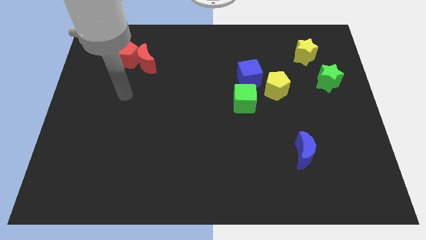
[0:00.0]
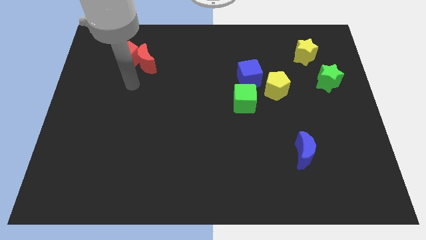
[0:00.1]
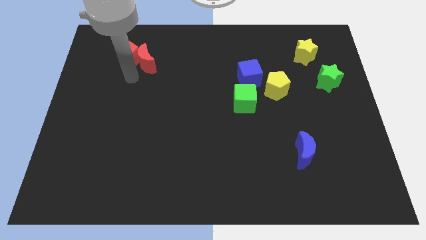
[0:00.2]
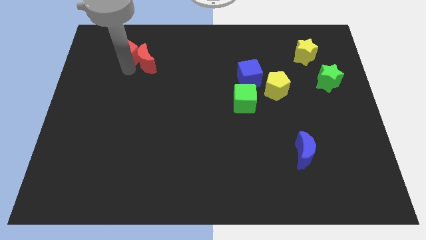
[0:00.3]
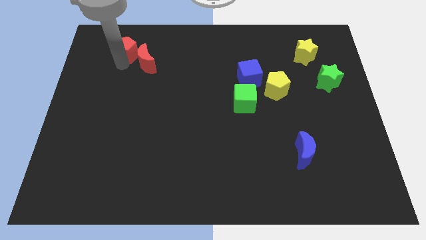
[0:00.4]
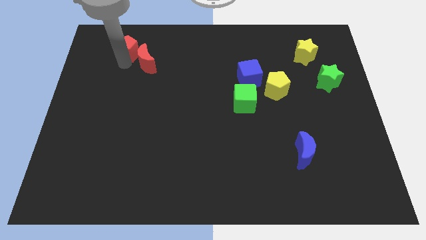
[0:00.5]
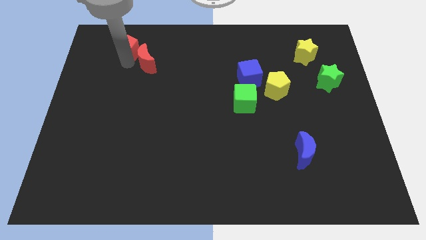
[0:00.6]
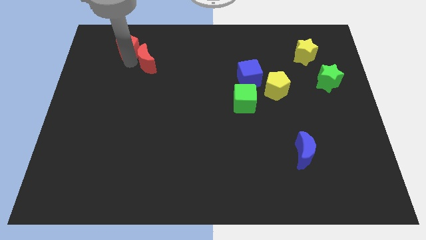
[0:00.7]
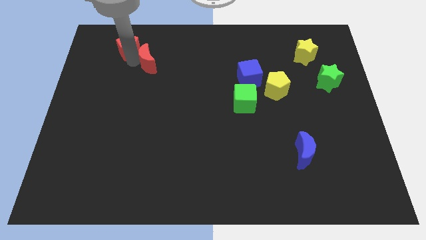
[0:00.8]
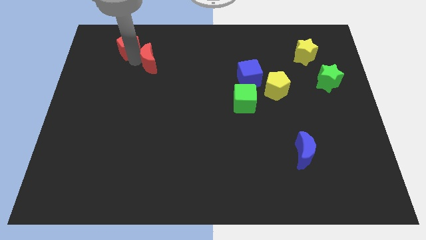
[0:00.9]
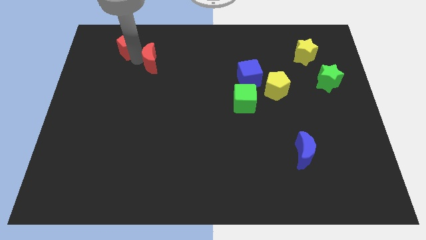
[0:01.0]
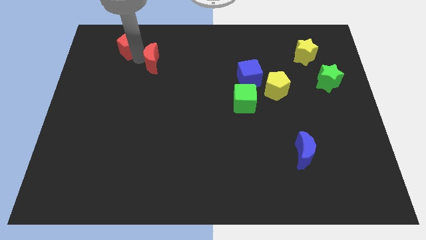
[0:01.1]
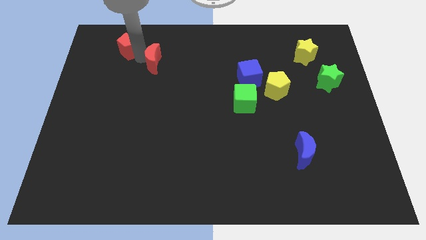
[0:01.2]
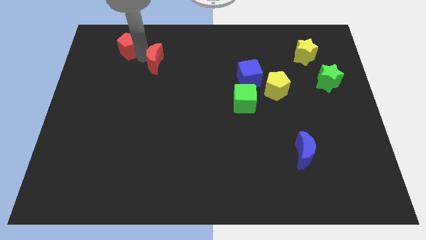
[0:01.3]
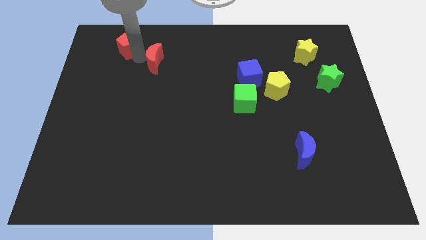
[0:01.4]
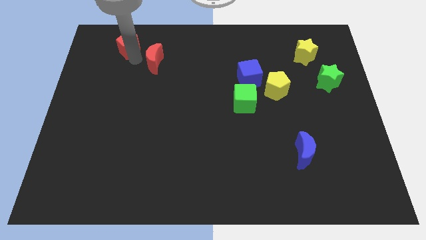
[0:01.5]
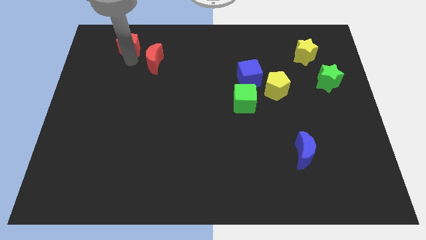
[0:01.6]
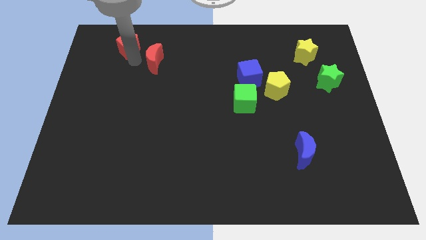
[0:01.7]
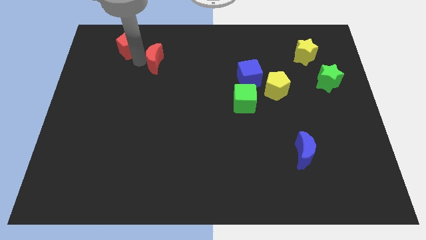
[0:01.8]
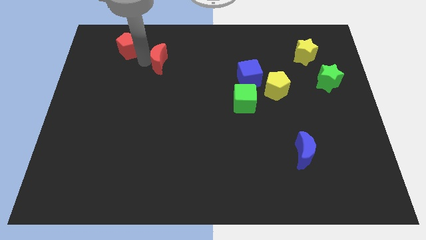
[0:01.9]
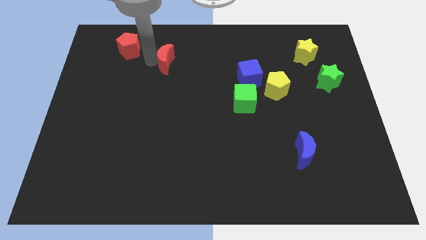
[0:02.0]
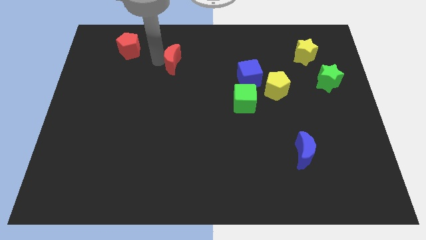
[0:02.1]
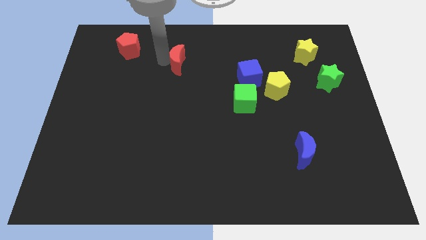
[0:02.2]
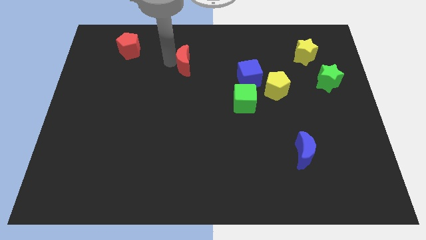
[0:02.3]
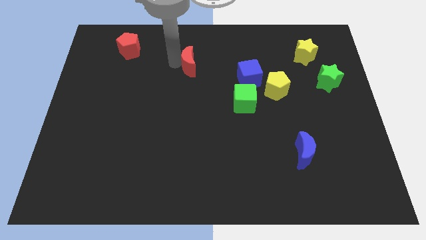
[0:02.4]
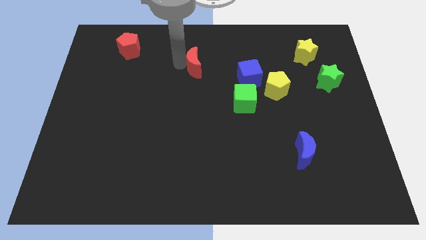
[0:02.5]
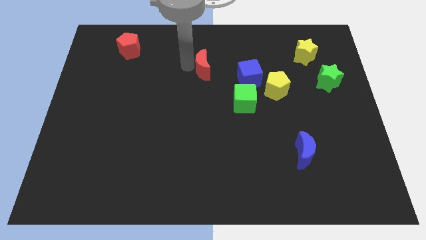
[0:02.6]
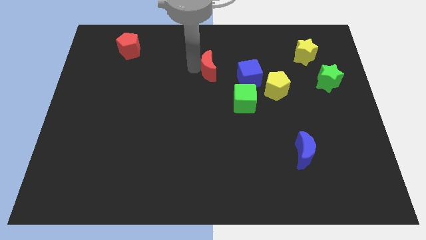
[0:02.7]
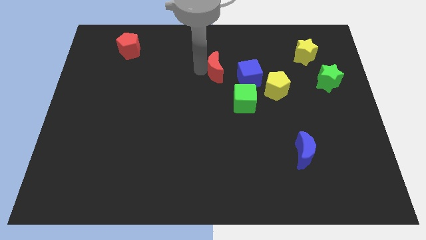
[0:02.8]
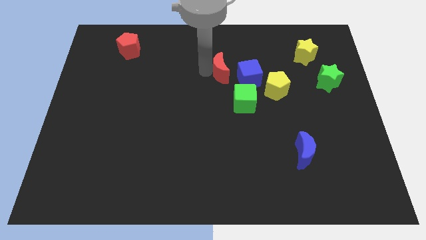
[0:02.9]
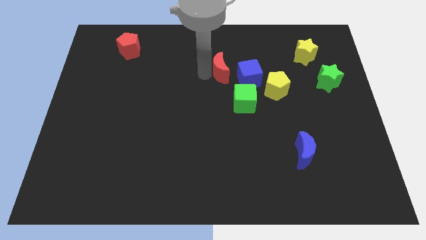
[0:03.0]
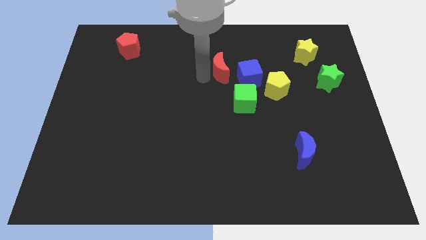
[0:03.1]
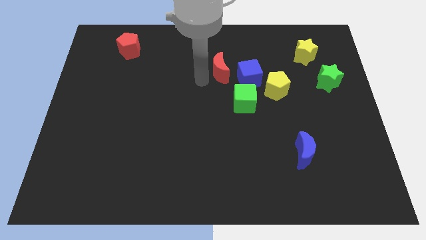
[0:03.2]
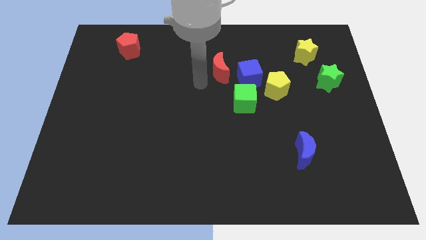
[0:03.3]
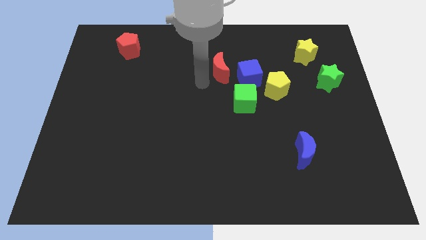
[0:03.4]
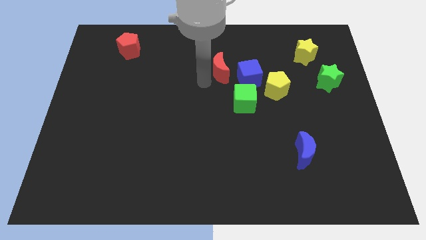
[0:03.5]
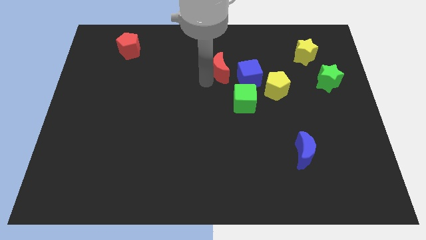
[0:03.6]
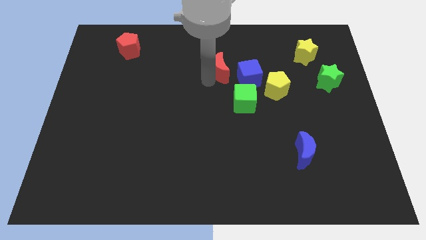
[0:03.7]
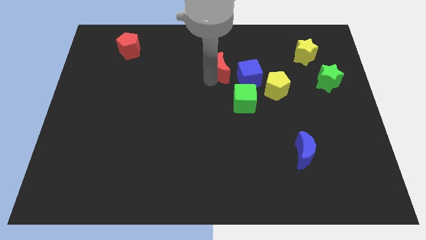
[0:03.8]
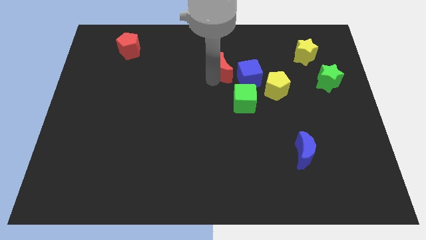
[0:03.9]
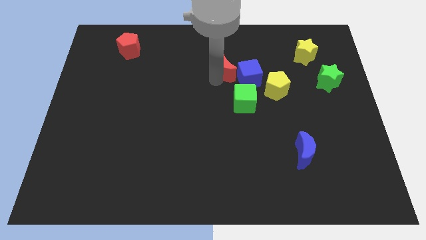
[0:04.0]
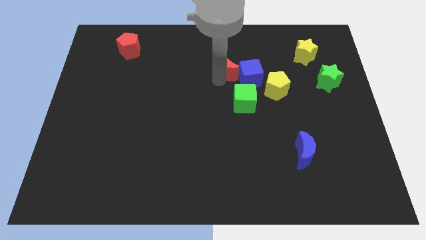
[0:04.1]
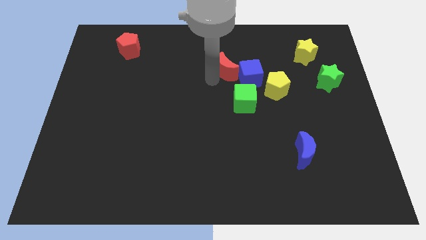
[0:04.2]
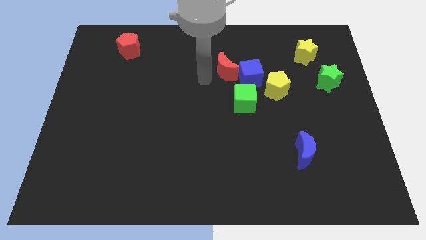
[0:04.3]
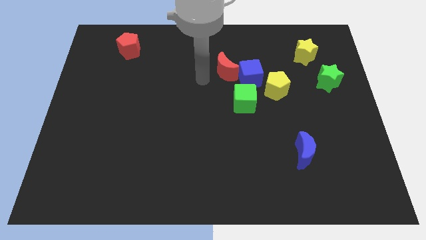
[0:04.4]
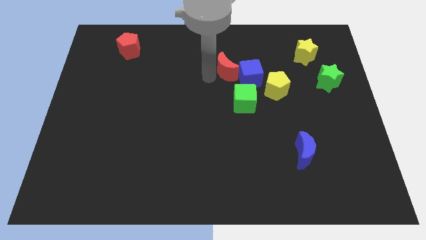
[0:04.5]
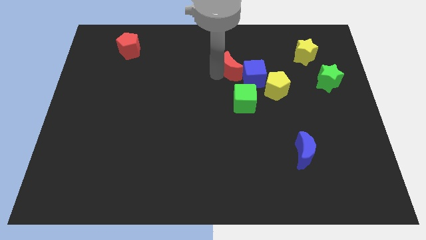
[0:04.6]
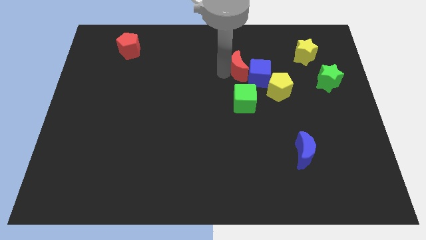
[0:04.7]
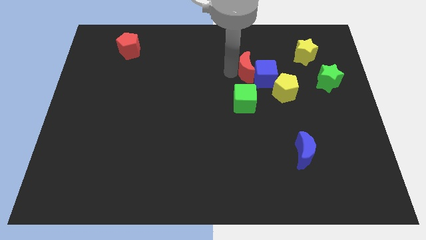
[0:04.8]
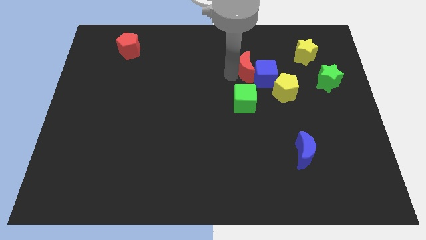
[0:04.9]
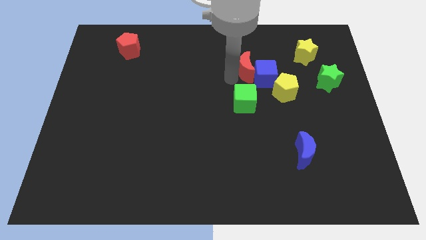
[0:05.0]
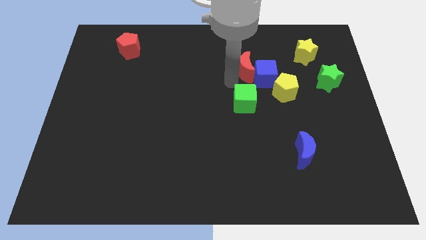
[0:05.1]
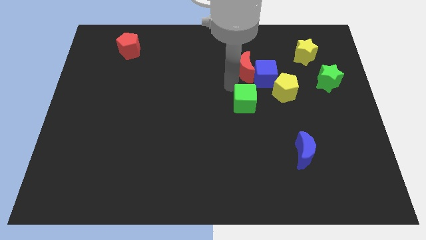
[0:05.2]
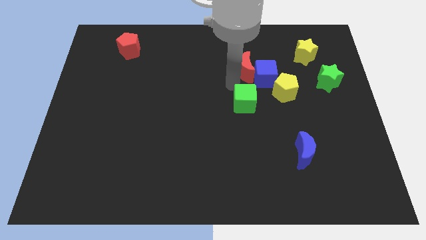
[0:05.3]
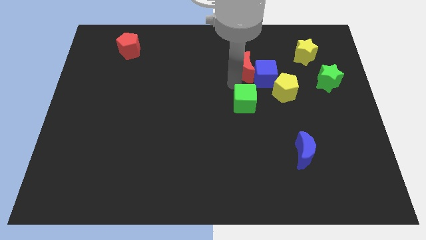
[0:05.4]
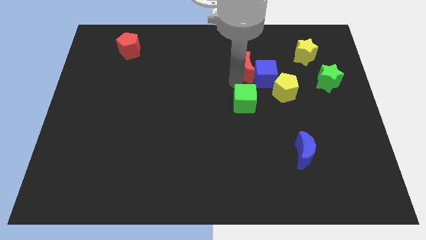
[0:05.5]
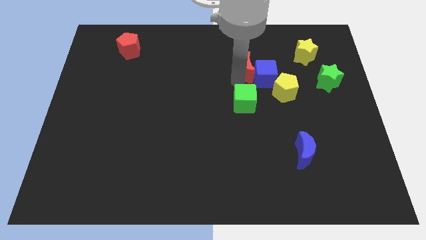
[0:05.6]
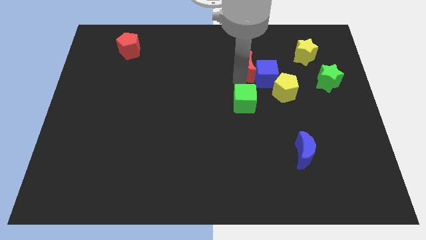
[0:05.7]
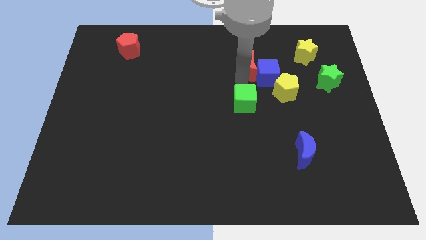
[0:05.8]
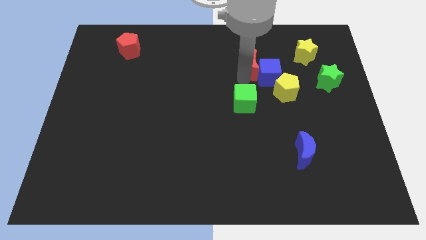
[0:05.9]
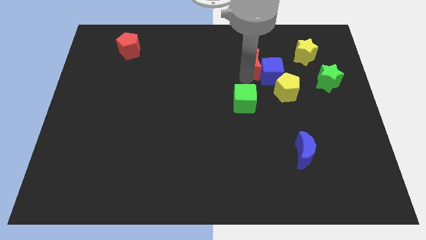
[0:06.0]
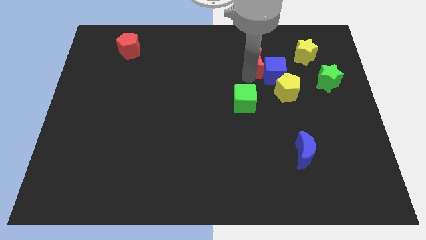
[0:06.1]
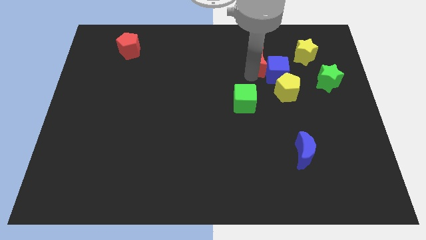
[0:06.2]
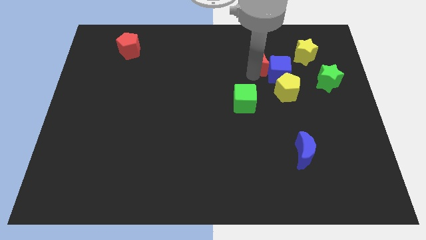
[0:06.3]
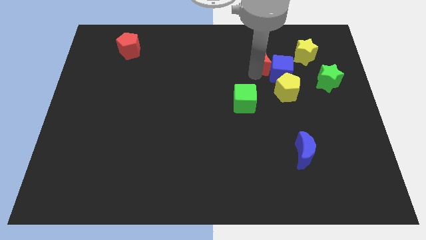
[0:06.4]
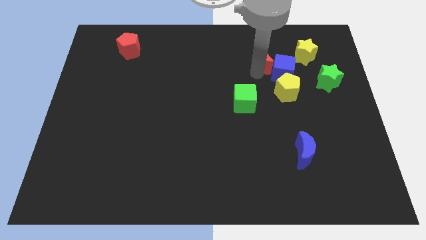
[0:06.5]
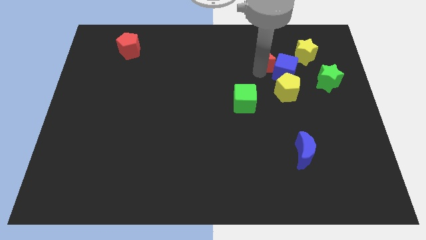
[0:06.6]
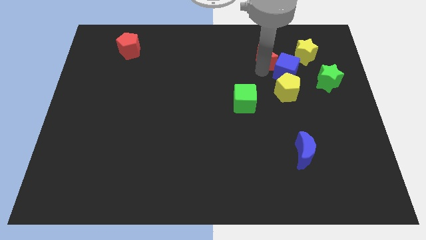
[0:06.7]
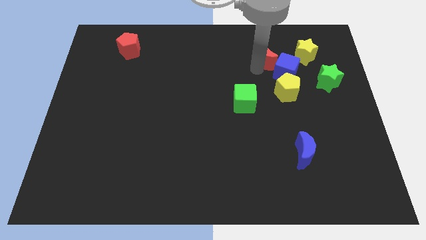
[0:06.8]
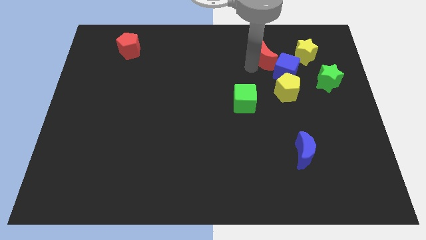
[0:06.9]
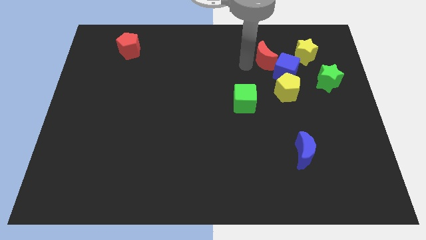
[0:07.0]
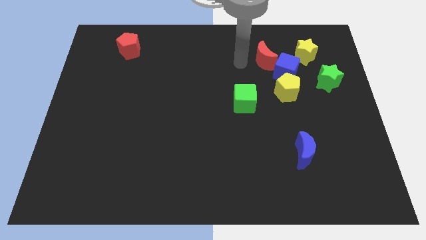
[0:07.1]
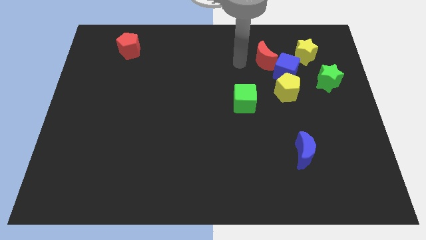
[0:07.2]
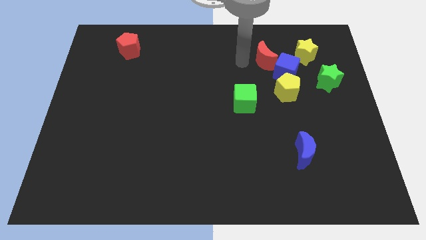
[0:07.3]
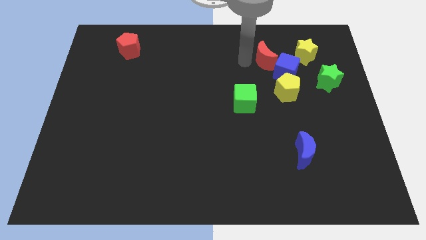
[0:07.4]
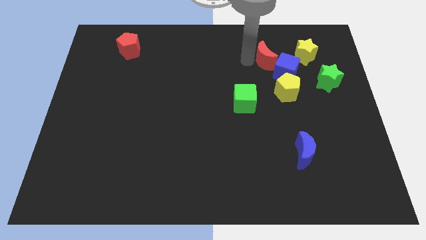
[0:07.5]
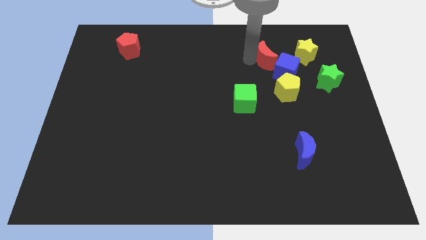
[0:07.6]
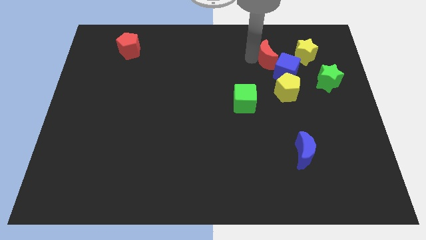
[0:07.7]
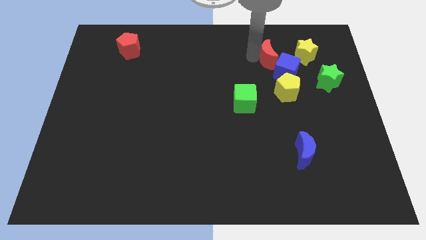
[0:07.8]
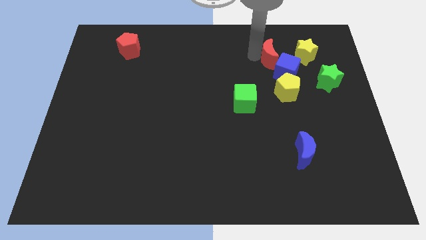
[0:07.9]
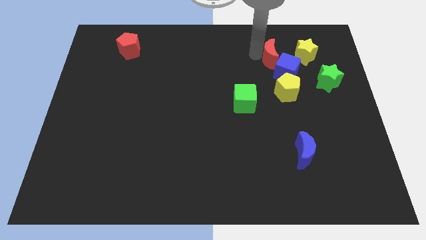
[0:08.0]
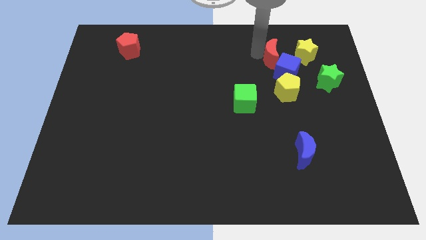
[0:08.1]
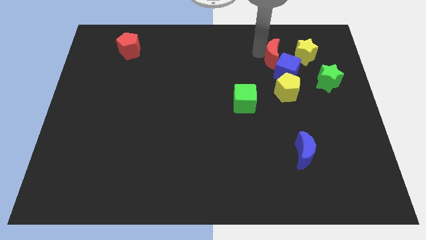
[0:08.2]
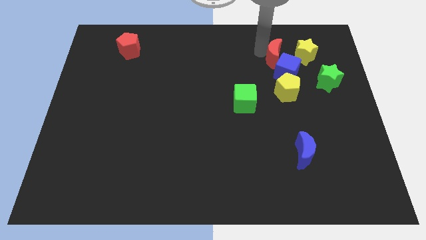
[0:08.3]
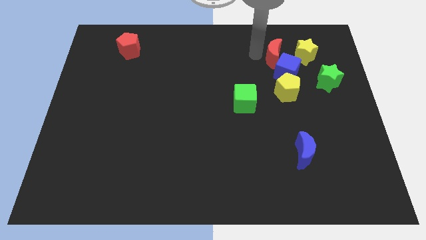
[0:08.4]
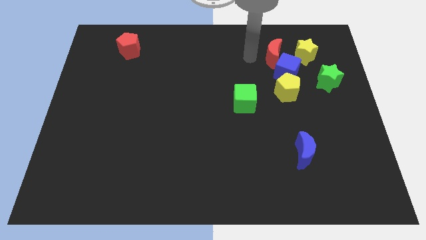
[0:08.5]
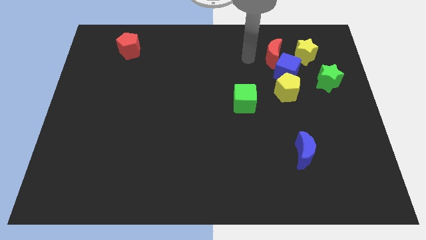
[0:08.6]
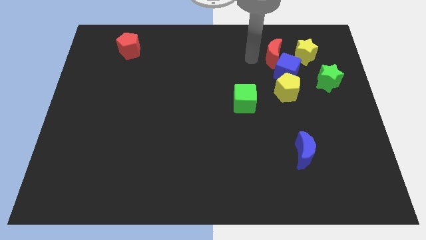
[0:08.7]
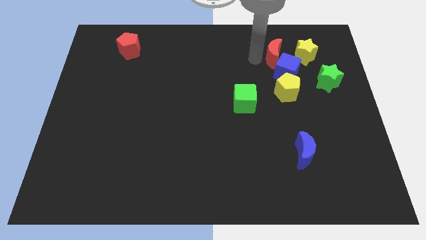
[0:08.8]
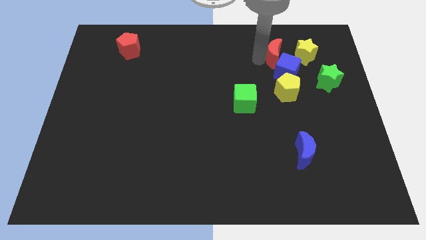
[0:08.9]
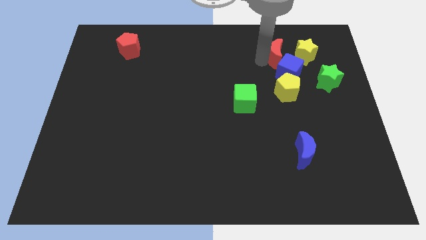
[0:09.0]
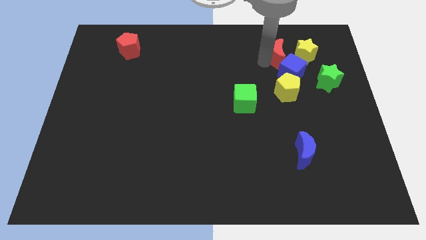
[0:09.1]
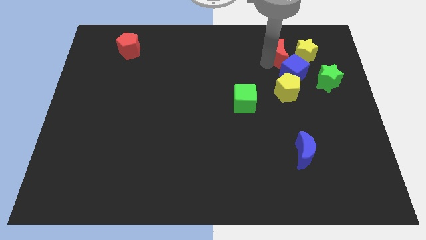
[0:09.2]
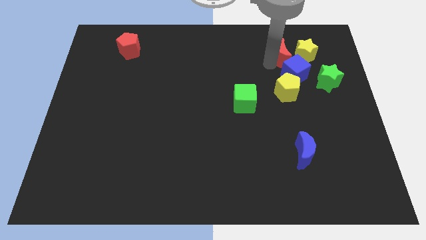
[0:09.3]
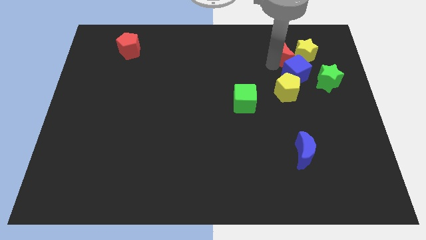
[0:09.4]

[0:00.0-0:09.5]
slide the red moon to the yellow star
